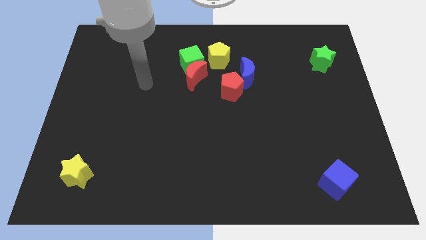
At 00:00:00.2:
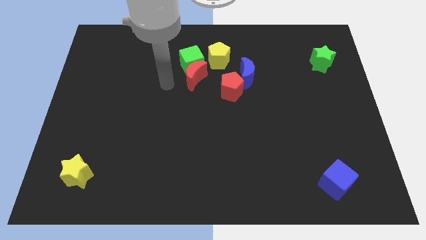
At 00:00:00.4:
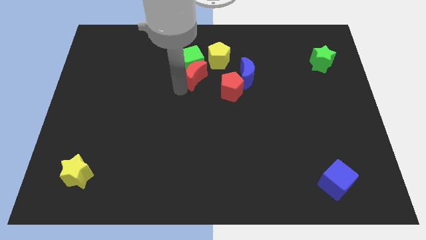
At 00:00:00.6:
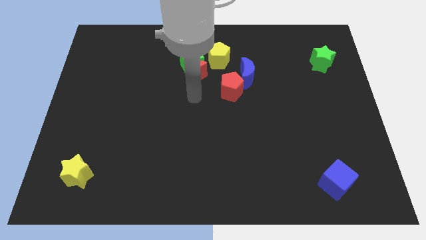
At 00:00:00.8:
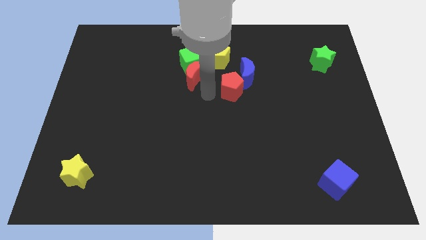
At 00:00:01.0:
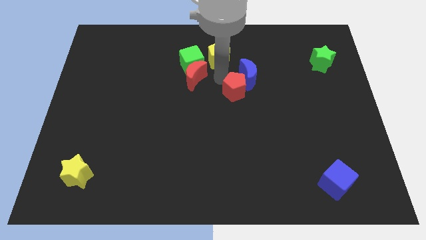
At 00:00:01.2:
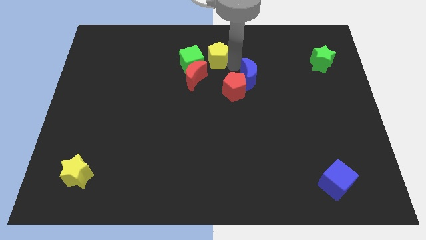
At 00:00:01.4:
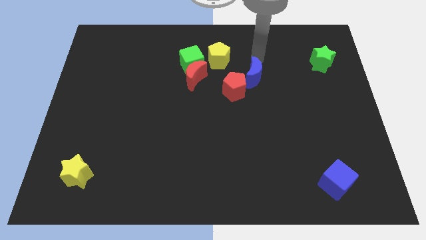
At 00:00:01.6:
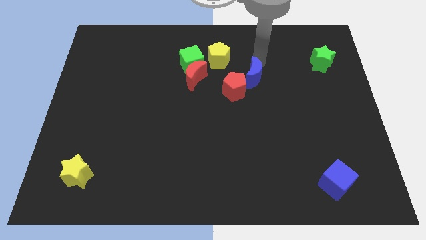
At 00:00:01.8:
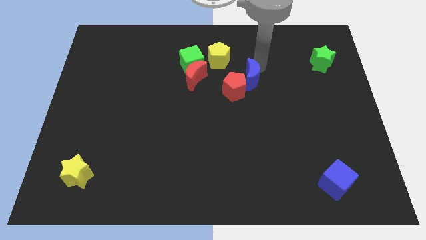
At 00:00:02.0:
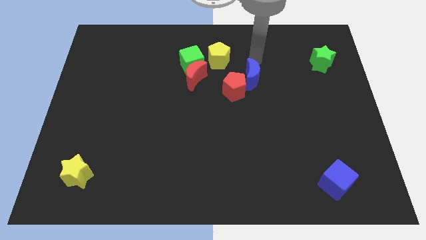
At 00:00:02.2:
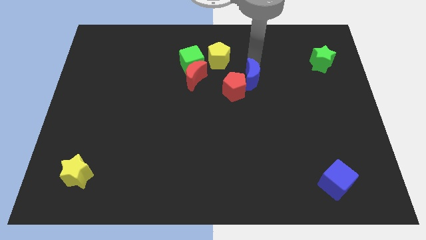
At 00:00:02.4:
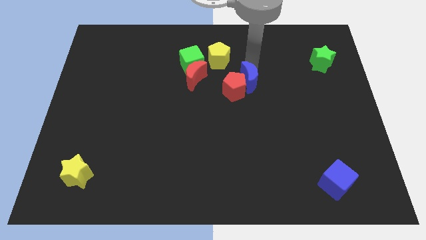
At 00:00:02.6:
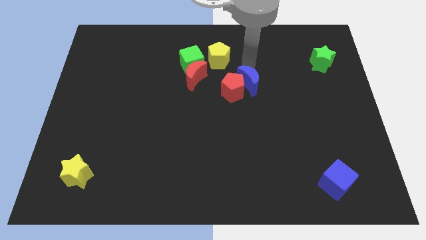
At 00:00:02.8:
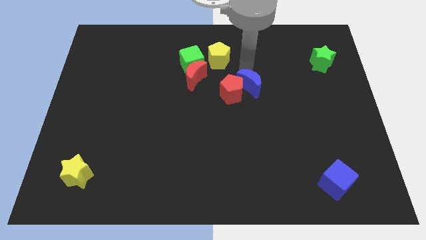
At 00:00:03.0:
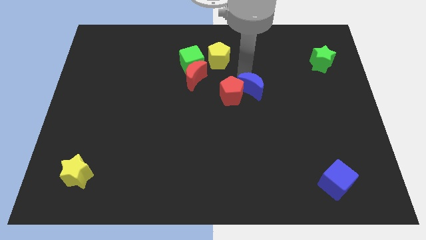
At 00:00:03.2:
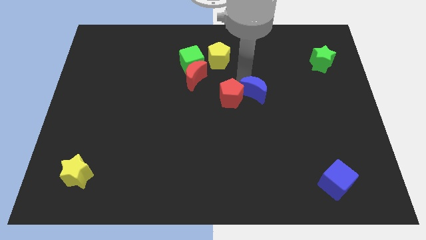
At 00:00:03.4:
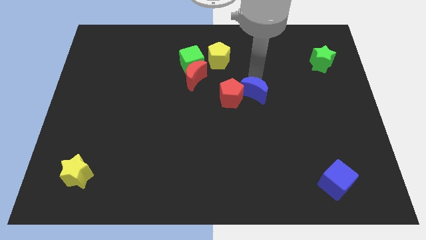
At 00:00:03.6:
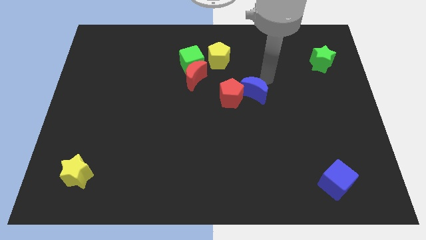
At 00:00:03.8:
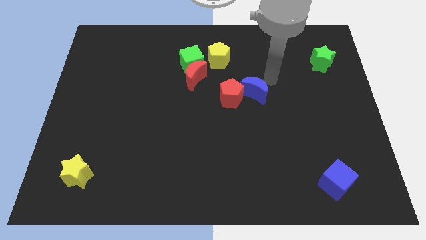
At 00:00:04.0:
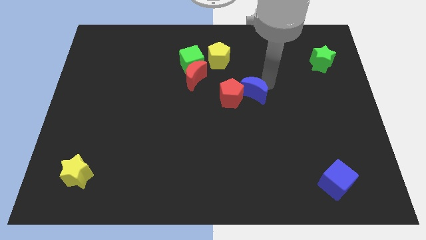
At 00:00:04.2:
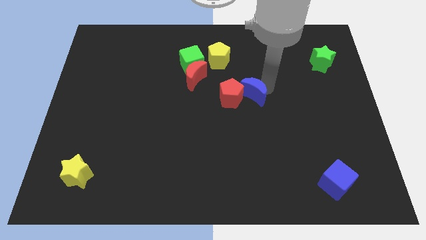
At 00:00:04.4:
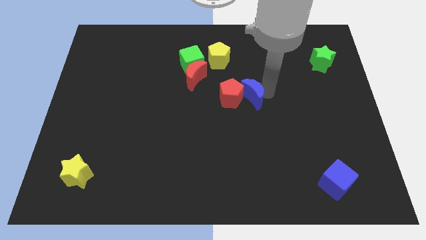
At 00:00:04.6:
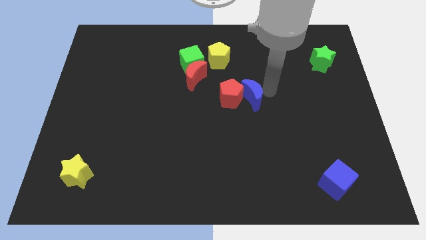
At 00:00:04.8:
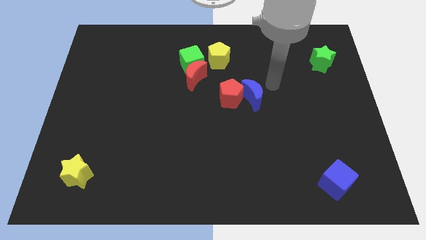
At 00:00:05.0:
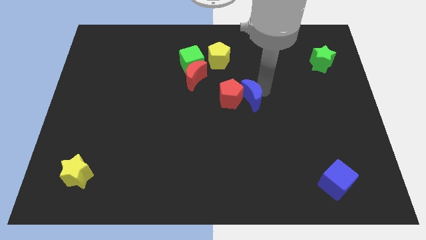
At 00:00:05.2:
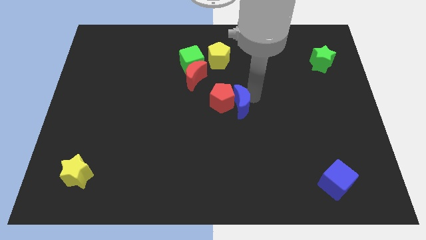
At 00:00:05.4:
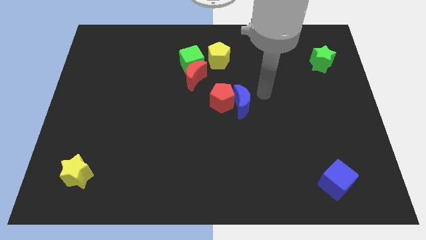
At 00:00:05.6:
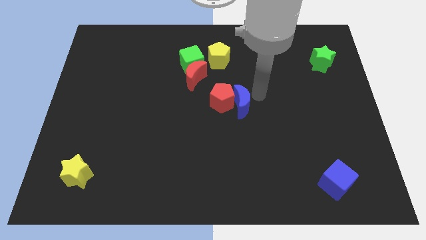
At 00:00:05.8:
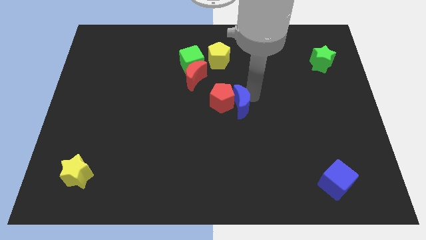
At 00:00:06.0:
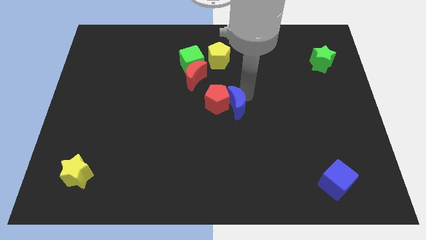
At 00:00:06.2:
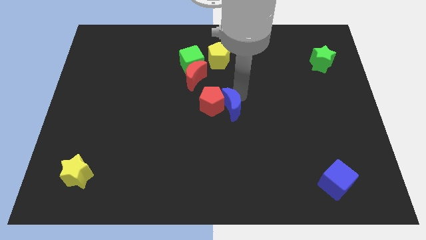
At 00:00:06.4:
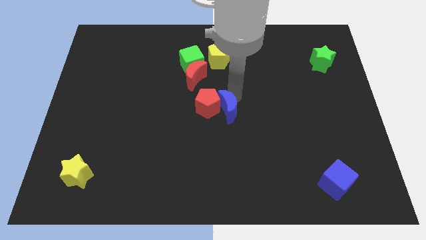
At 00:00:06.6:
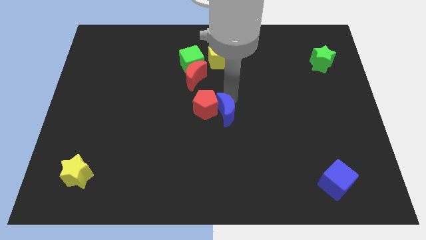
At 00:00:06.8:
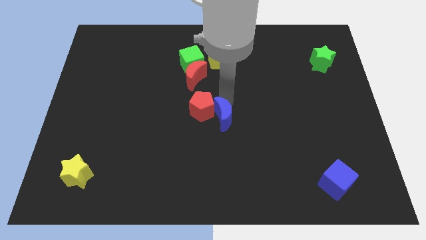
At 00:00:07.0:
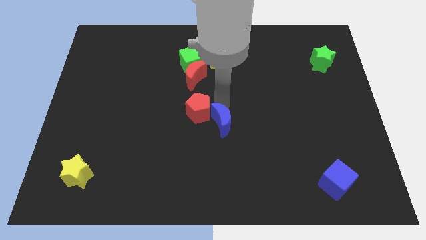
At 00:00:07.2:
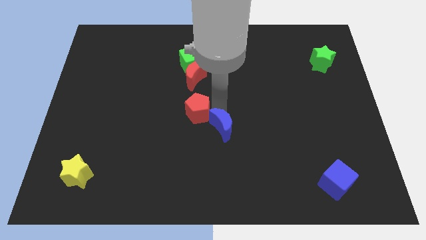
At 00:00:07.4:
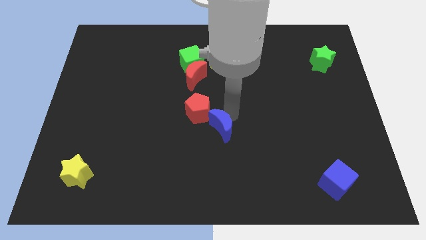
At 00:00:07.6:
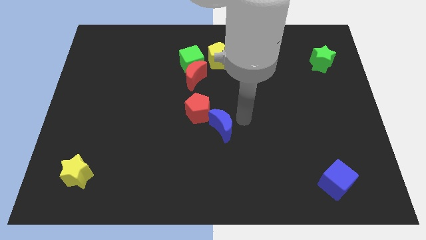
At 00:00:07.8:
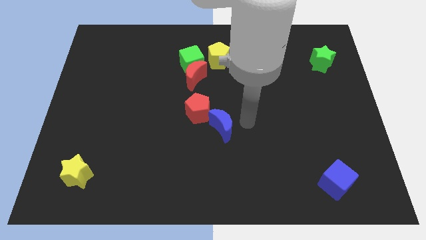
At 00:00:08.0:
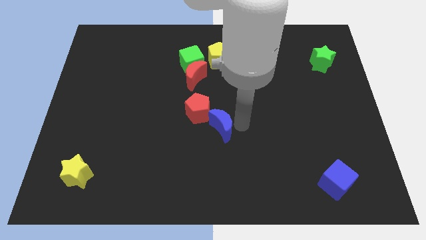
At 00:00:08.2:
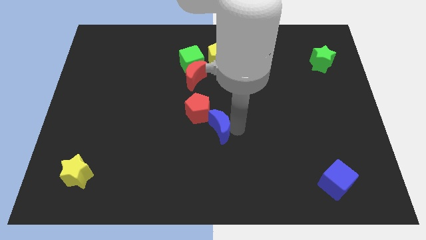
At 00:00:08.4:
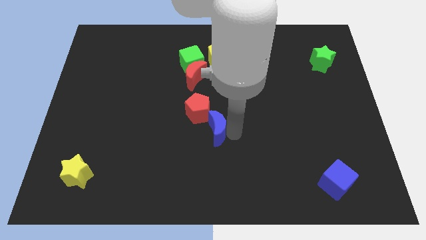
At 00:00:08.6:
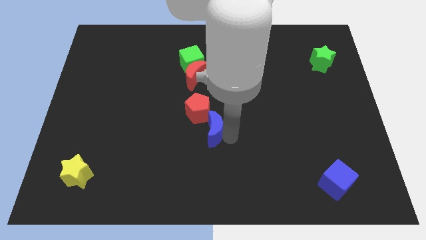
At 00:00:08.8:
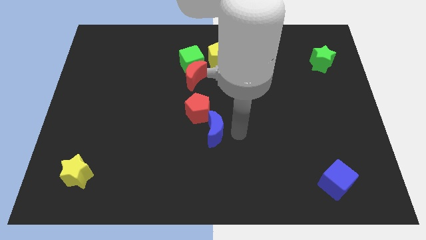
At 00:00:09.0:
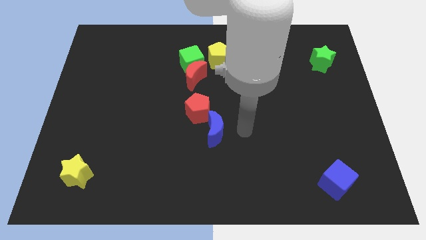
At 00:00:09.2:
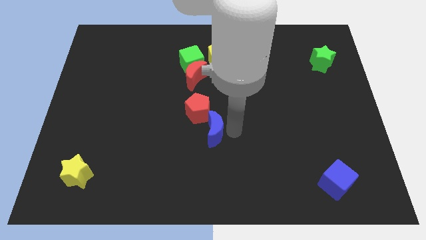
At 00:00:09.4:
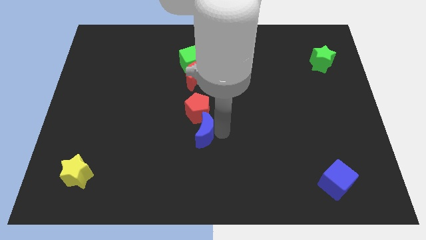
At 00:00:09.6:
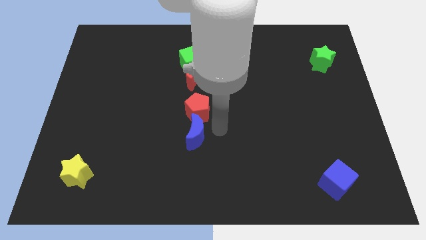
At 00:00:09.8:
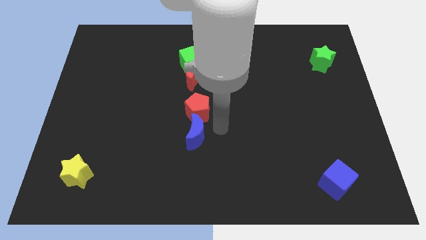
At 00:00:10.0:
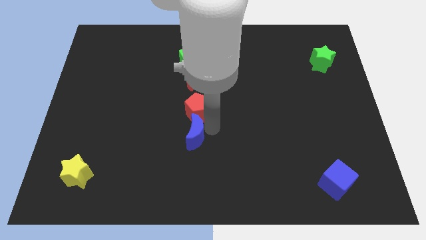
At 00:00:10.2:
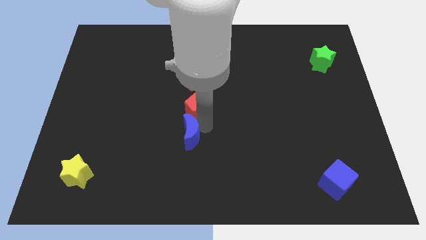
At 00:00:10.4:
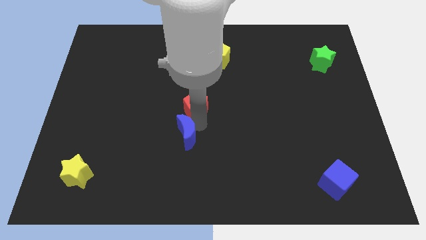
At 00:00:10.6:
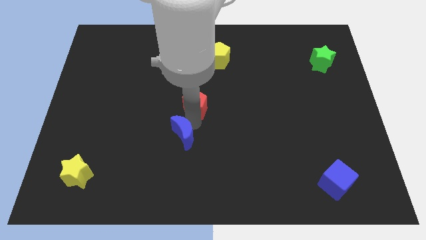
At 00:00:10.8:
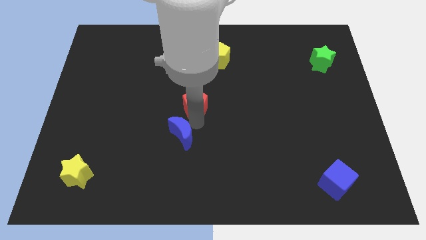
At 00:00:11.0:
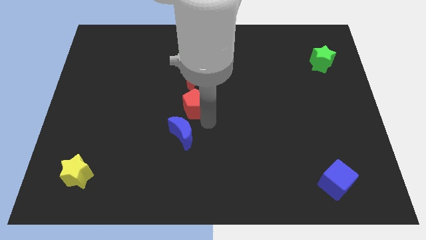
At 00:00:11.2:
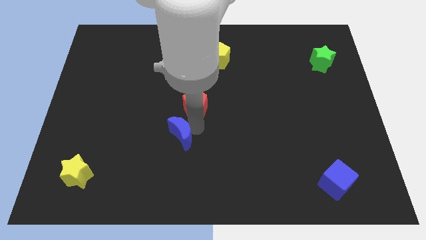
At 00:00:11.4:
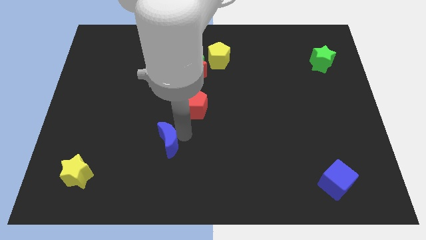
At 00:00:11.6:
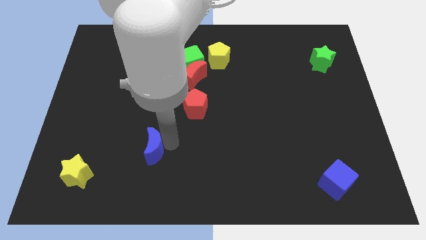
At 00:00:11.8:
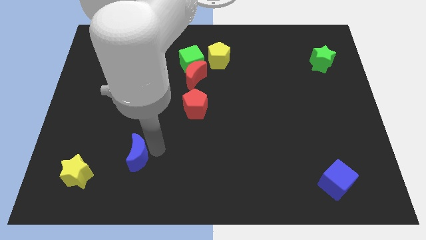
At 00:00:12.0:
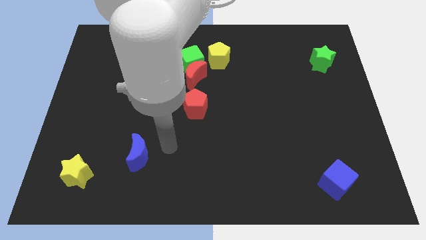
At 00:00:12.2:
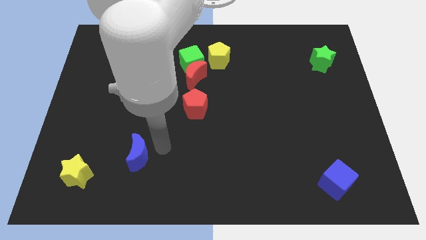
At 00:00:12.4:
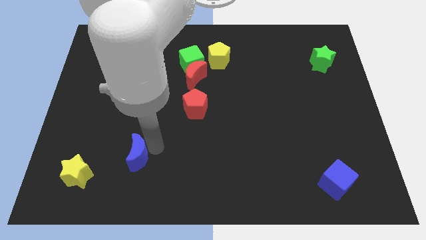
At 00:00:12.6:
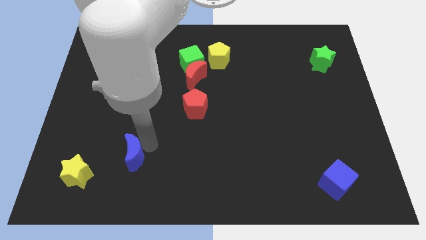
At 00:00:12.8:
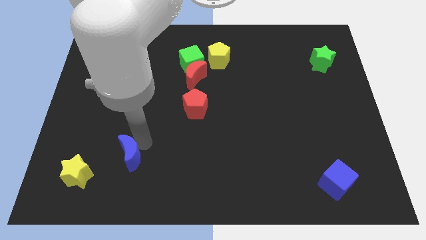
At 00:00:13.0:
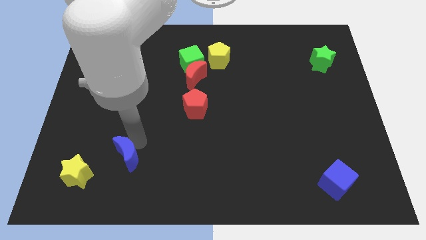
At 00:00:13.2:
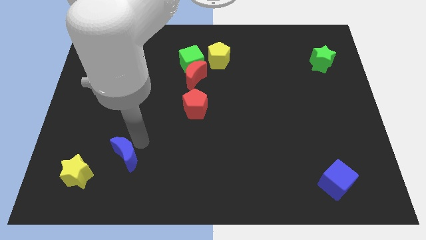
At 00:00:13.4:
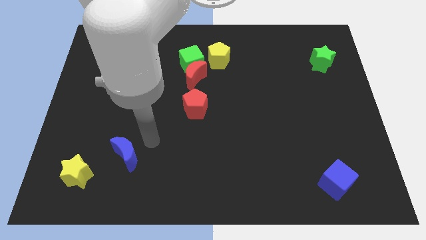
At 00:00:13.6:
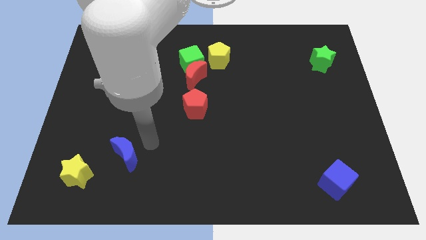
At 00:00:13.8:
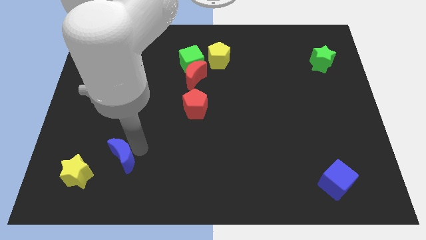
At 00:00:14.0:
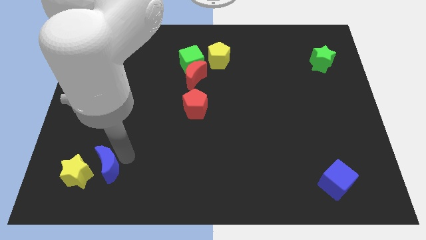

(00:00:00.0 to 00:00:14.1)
push the blue moon next to the yellow star

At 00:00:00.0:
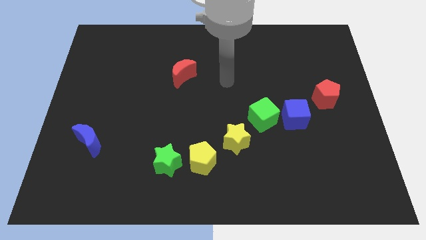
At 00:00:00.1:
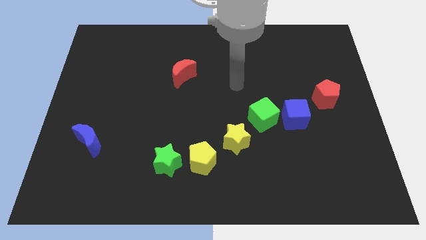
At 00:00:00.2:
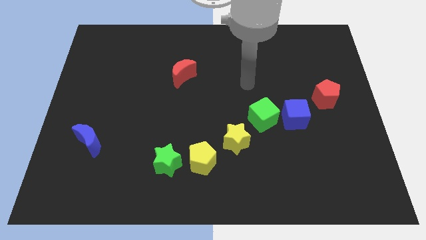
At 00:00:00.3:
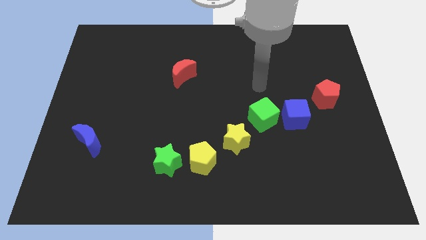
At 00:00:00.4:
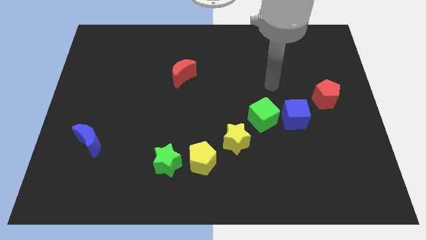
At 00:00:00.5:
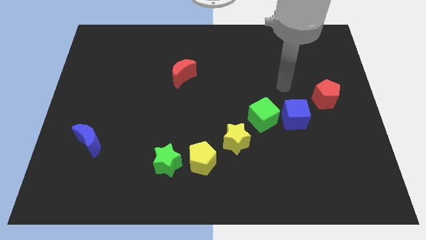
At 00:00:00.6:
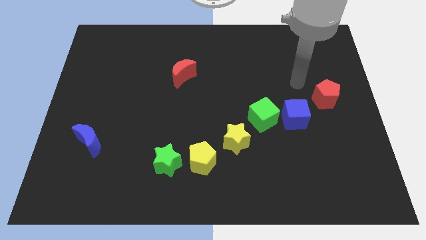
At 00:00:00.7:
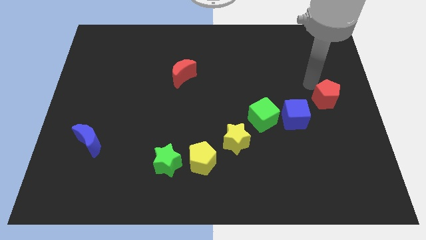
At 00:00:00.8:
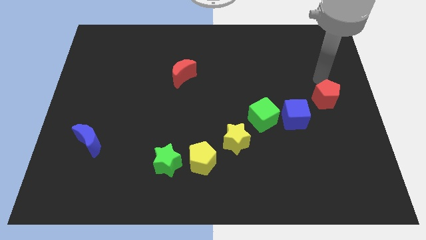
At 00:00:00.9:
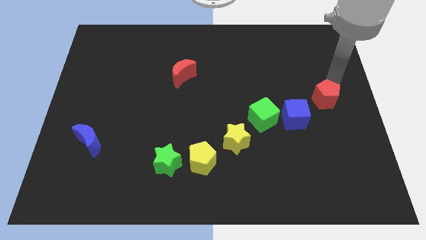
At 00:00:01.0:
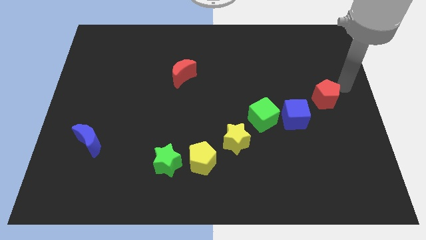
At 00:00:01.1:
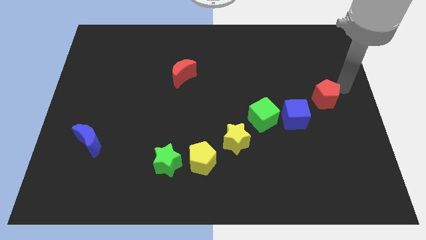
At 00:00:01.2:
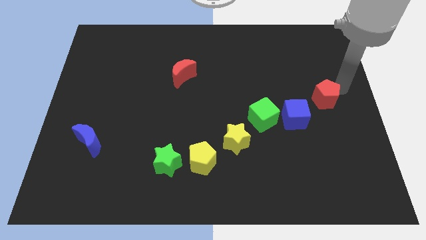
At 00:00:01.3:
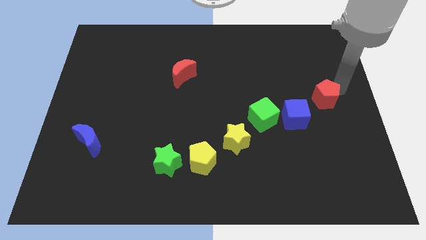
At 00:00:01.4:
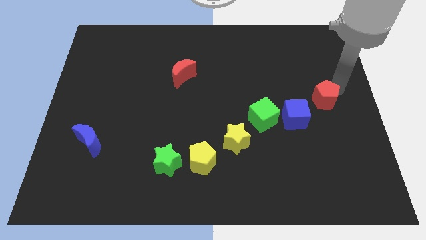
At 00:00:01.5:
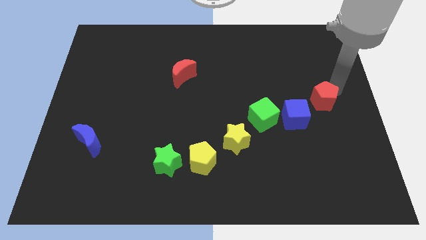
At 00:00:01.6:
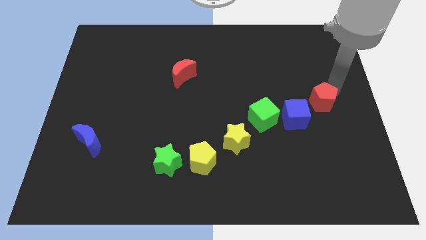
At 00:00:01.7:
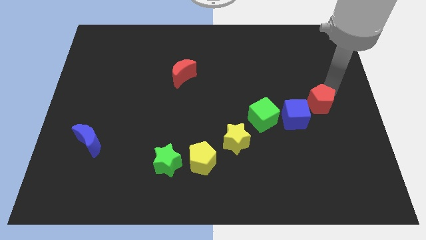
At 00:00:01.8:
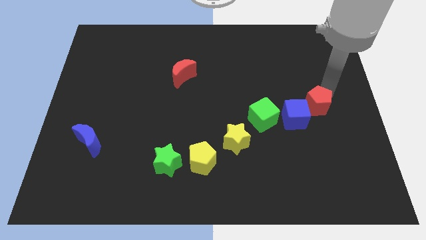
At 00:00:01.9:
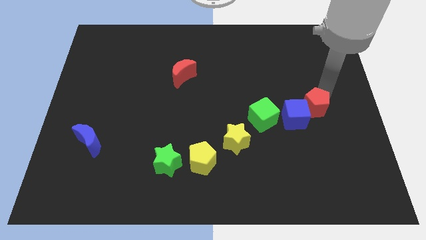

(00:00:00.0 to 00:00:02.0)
slide the red pentagon to the blue cube
